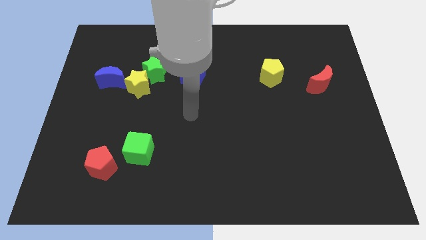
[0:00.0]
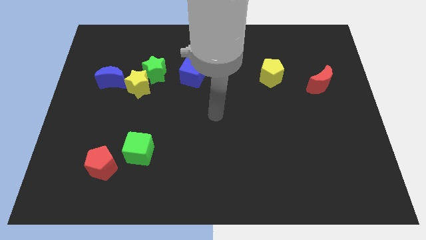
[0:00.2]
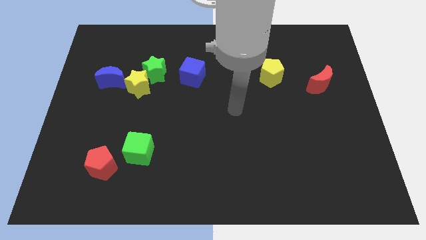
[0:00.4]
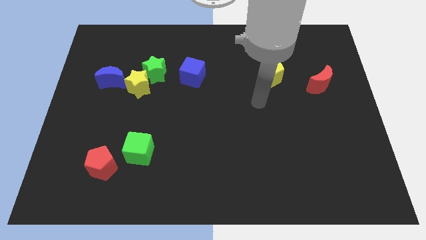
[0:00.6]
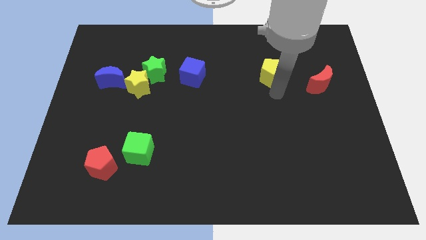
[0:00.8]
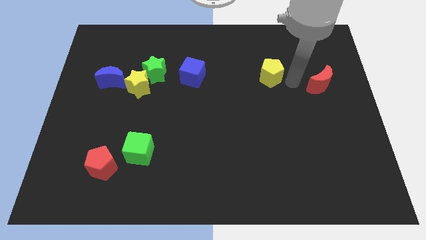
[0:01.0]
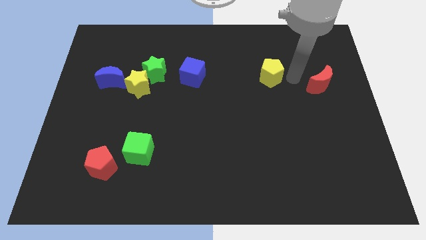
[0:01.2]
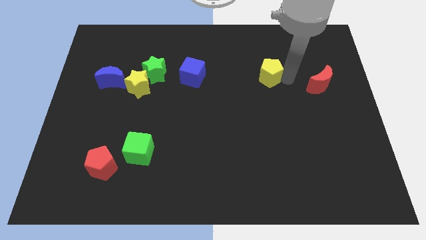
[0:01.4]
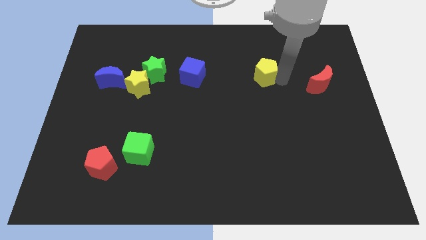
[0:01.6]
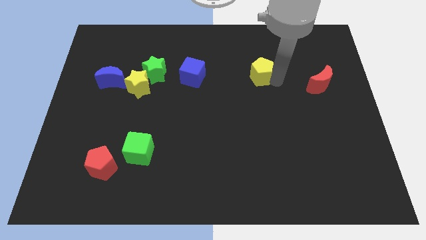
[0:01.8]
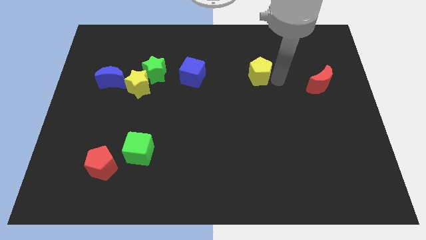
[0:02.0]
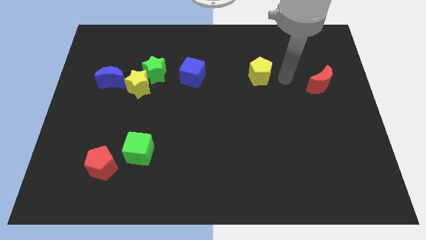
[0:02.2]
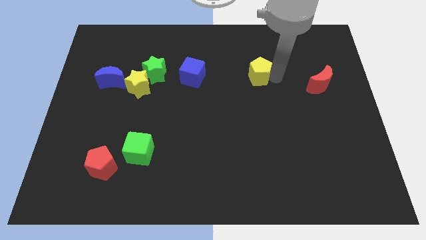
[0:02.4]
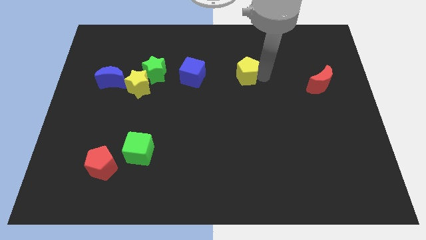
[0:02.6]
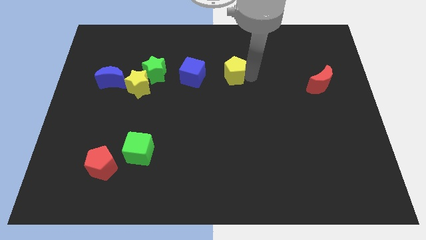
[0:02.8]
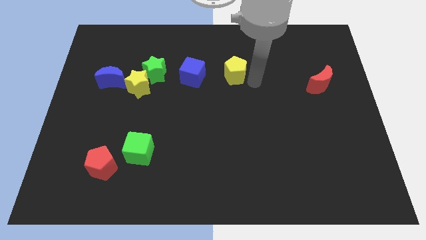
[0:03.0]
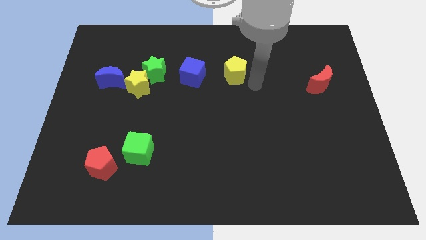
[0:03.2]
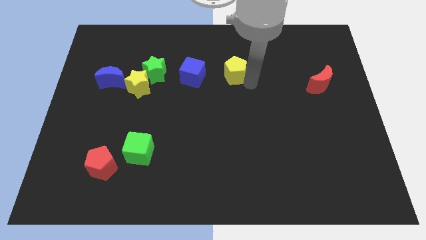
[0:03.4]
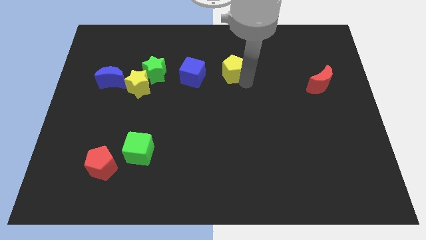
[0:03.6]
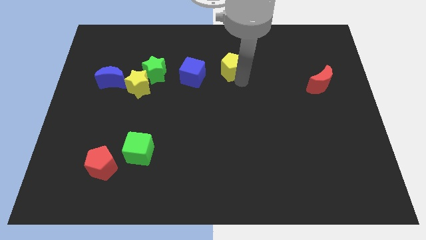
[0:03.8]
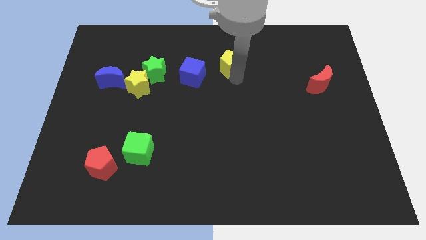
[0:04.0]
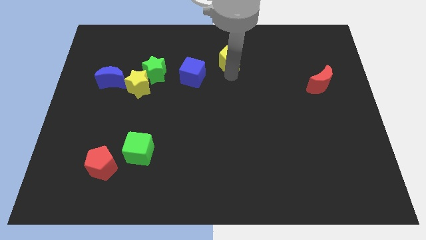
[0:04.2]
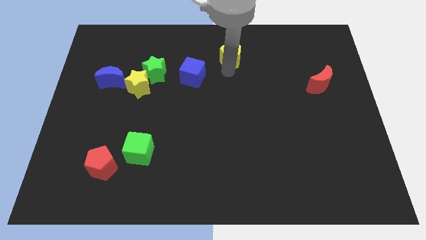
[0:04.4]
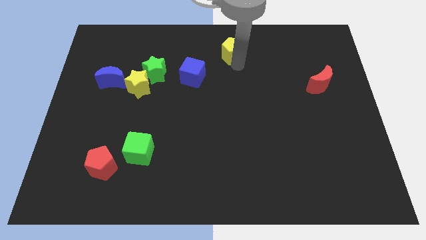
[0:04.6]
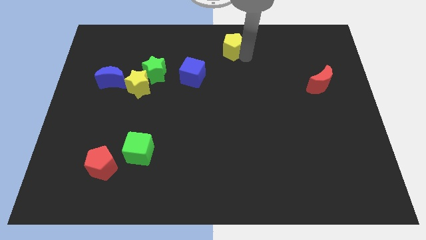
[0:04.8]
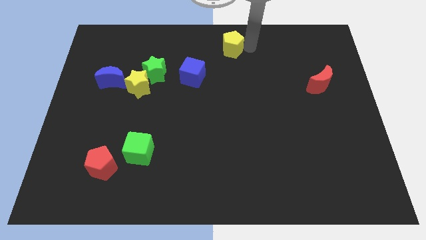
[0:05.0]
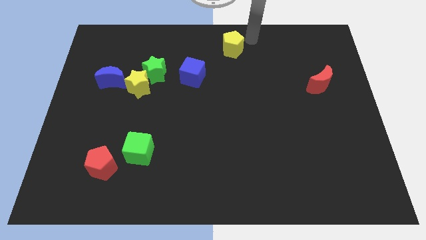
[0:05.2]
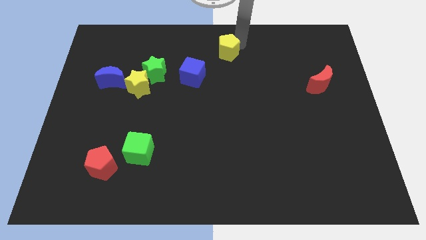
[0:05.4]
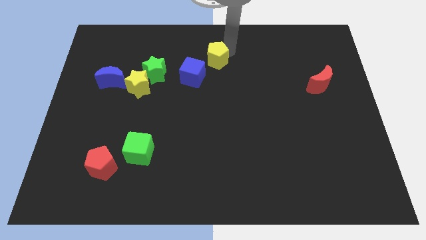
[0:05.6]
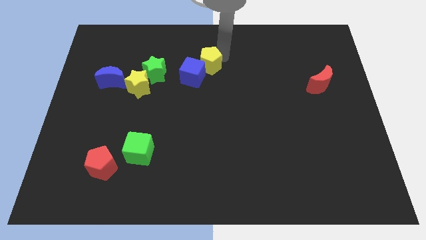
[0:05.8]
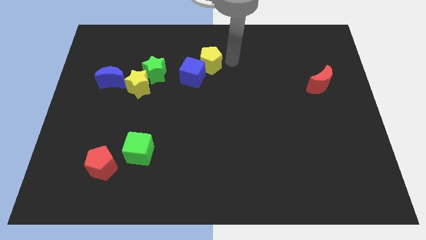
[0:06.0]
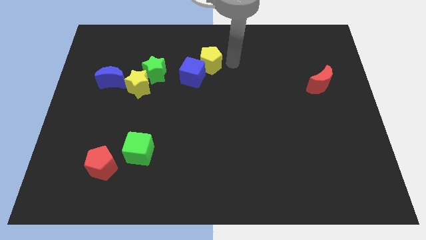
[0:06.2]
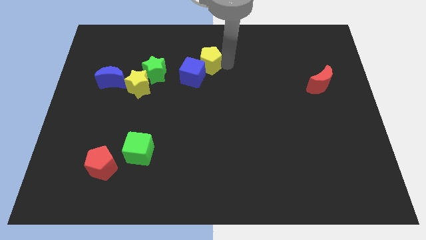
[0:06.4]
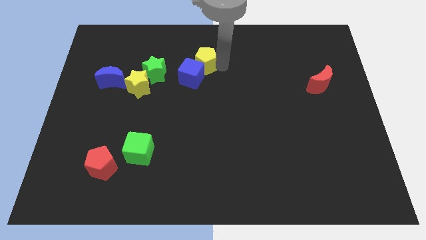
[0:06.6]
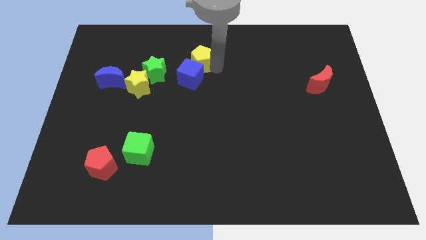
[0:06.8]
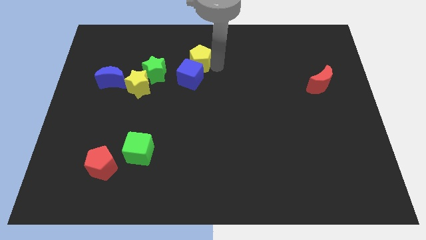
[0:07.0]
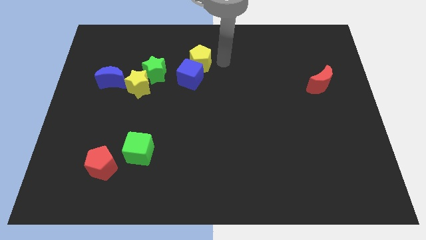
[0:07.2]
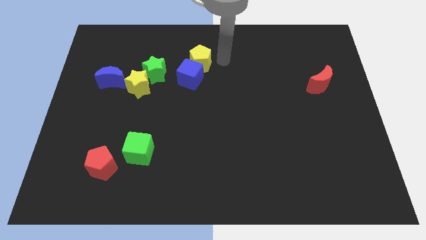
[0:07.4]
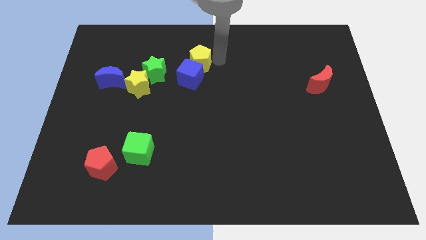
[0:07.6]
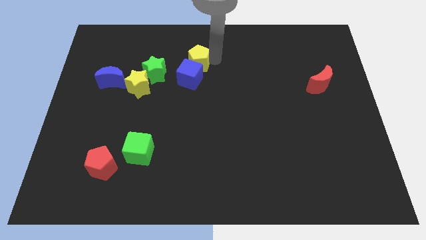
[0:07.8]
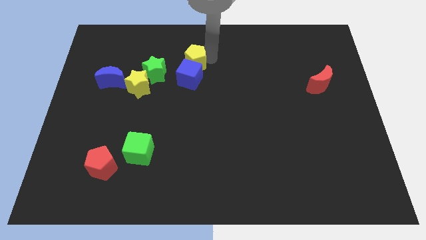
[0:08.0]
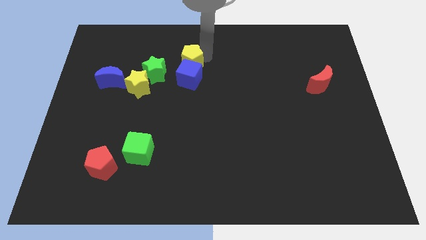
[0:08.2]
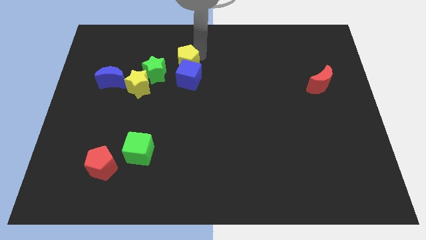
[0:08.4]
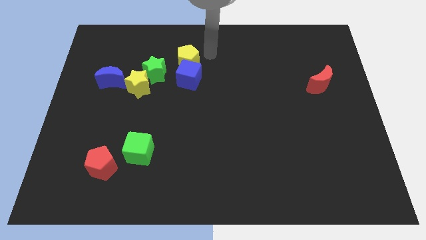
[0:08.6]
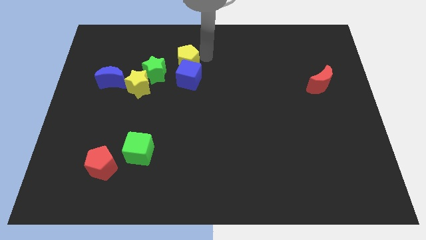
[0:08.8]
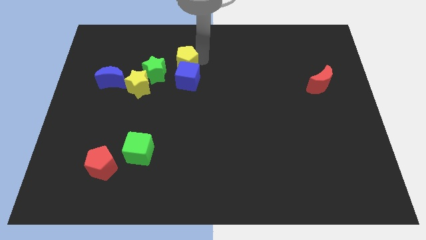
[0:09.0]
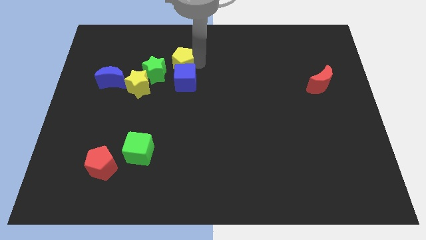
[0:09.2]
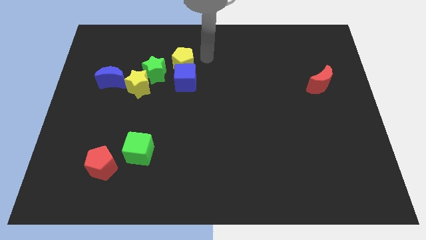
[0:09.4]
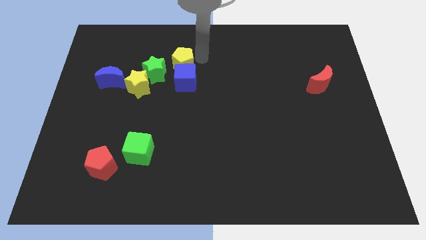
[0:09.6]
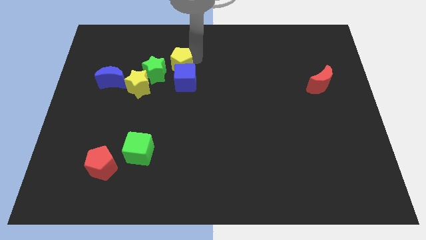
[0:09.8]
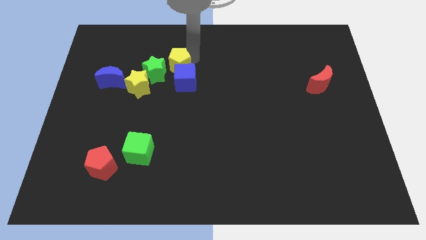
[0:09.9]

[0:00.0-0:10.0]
put the yellow pentagon to the top right side of the yellow star

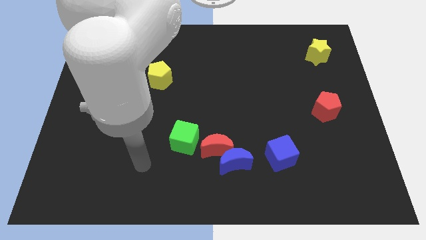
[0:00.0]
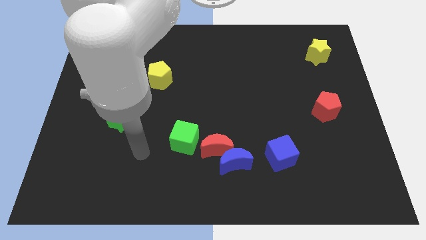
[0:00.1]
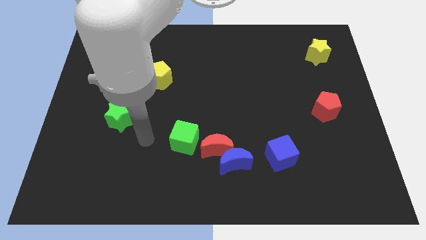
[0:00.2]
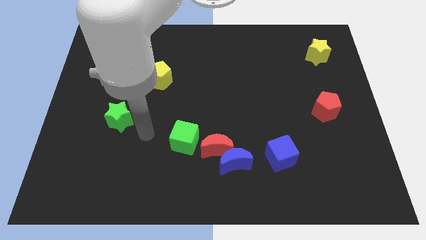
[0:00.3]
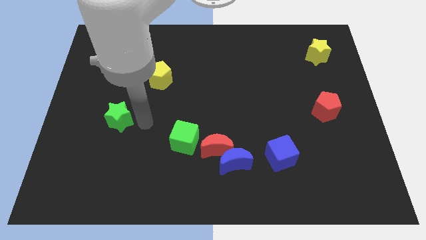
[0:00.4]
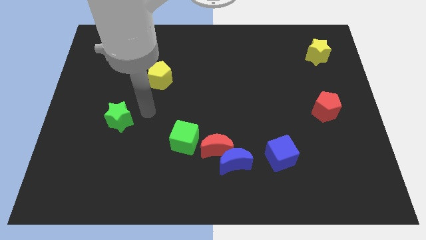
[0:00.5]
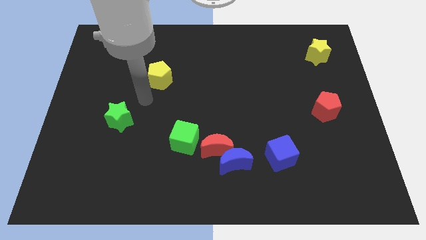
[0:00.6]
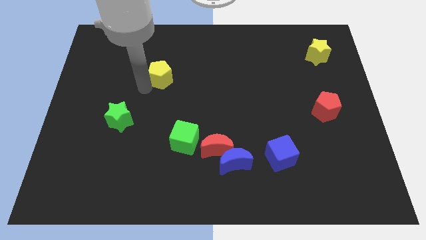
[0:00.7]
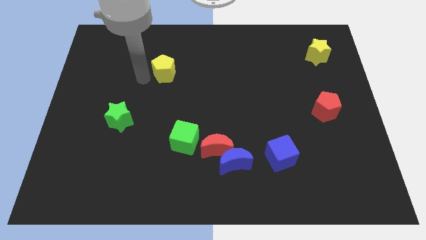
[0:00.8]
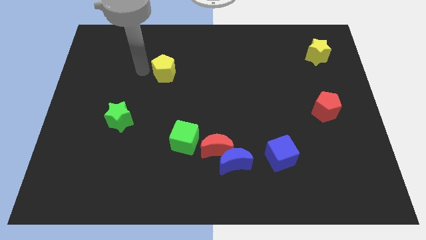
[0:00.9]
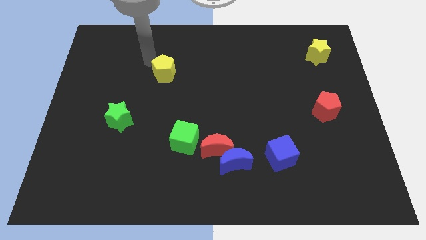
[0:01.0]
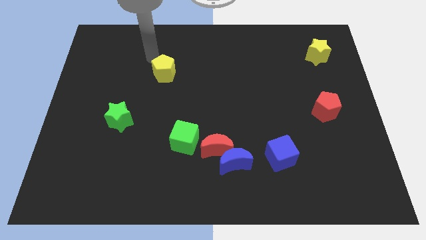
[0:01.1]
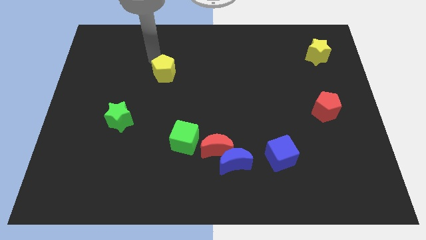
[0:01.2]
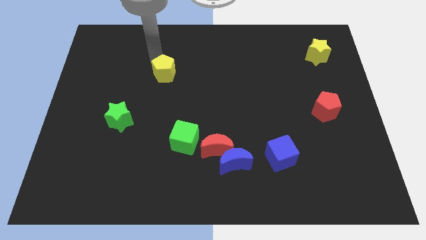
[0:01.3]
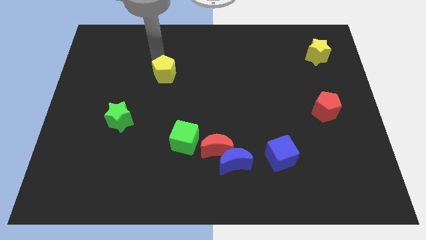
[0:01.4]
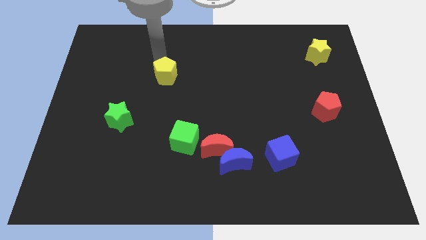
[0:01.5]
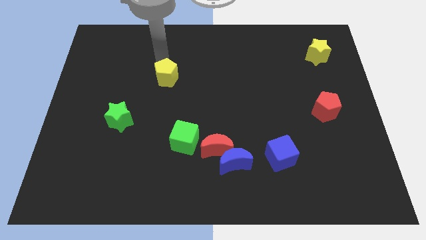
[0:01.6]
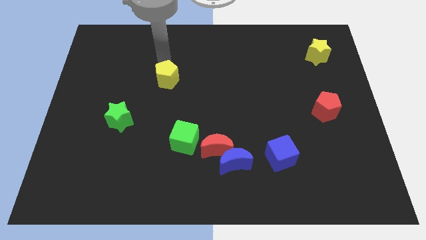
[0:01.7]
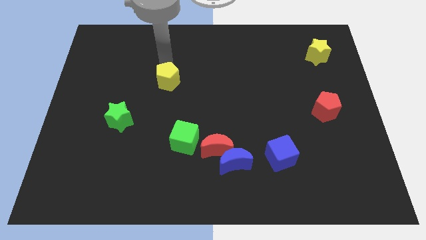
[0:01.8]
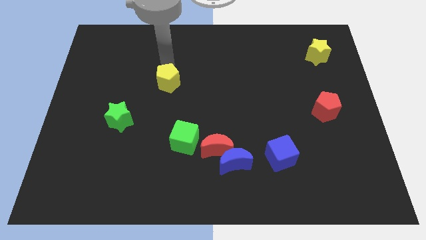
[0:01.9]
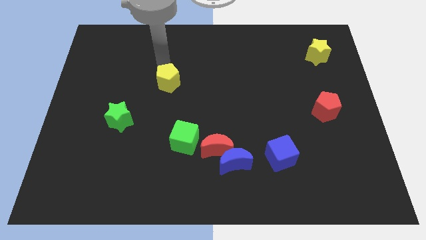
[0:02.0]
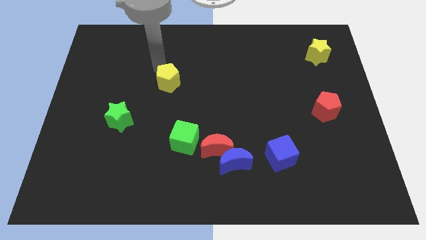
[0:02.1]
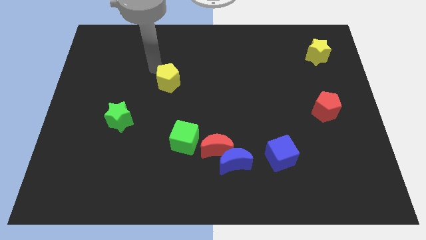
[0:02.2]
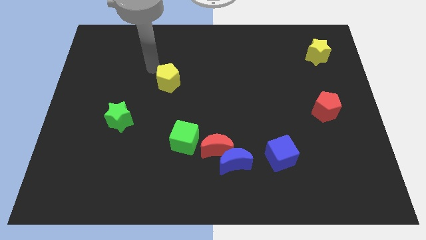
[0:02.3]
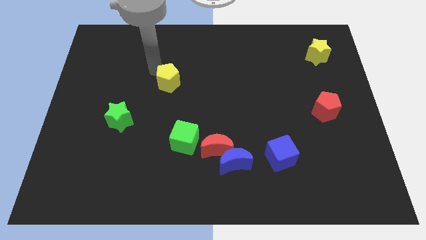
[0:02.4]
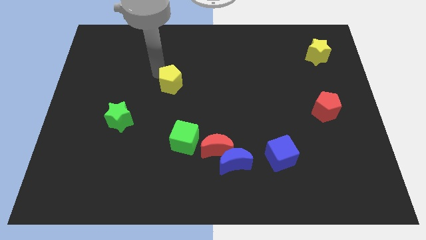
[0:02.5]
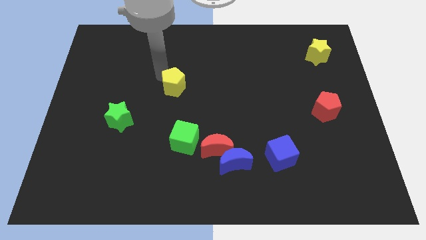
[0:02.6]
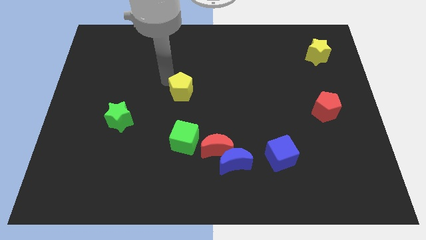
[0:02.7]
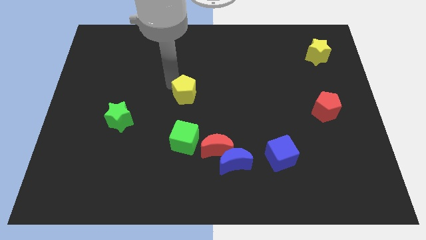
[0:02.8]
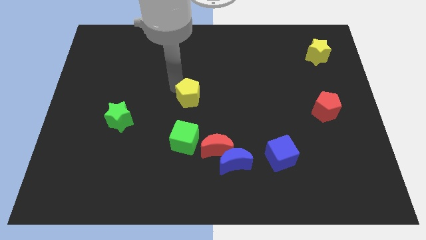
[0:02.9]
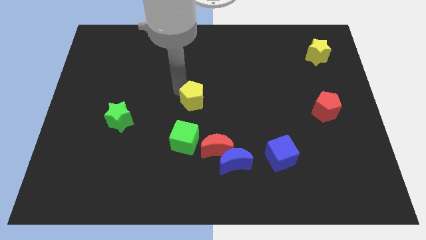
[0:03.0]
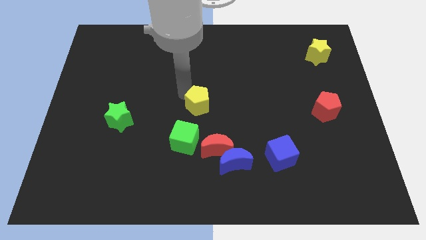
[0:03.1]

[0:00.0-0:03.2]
move the yellow pentagon to the top of the red moon
